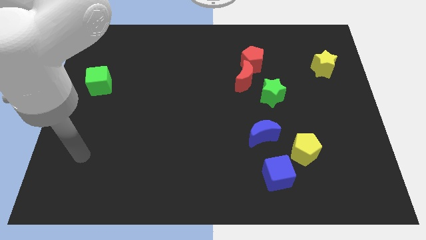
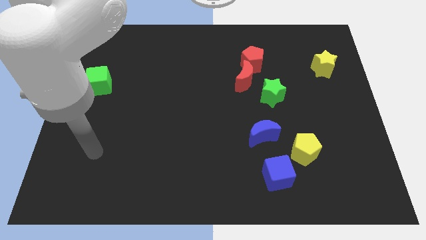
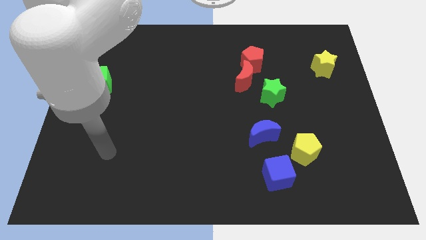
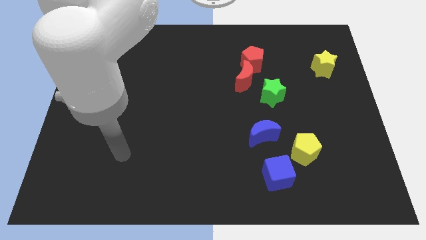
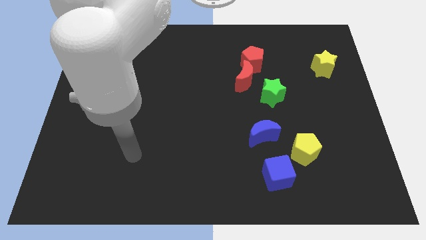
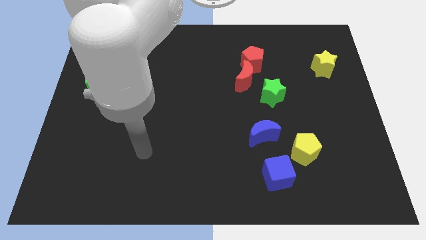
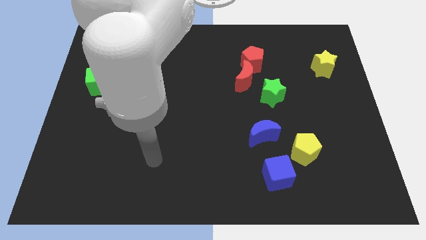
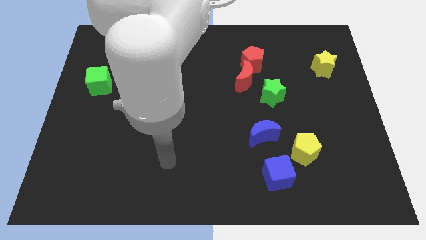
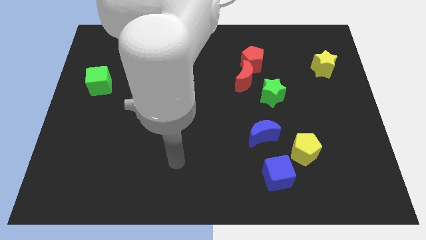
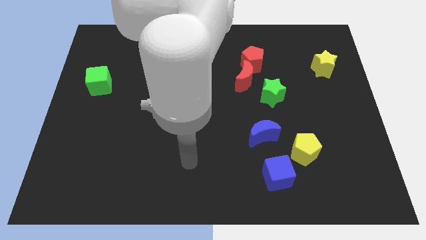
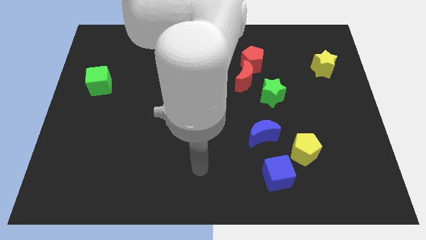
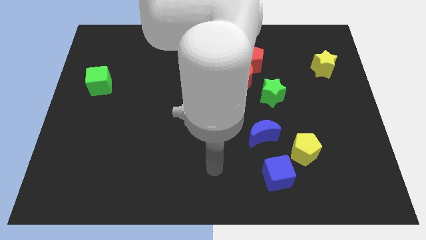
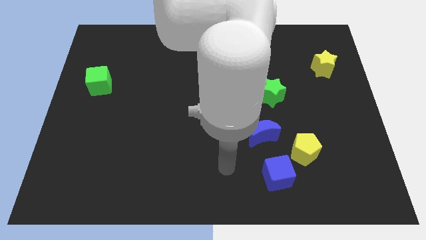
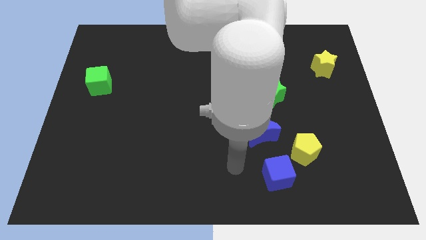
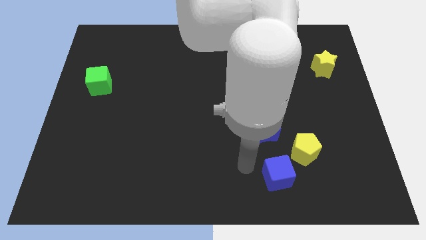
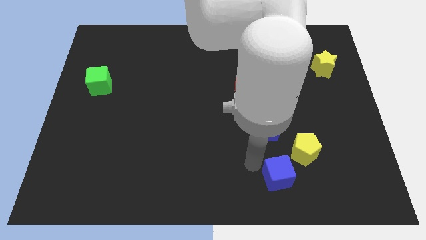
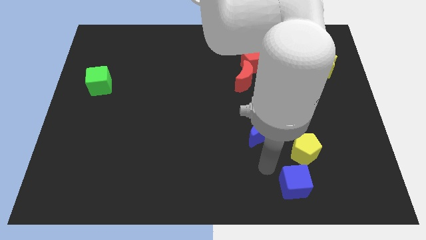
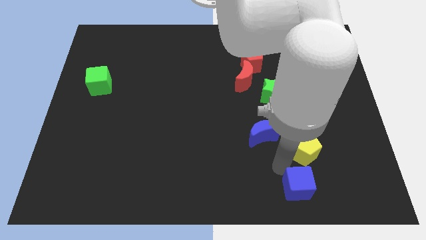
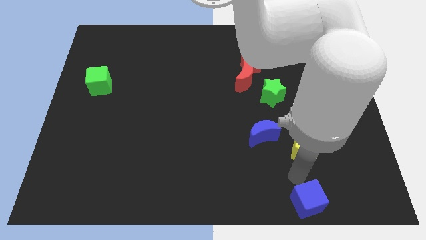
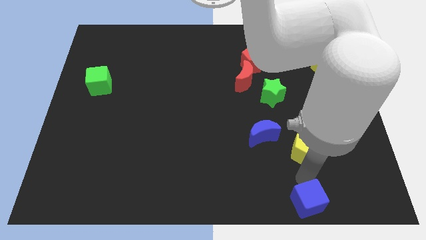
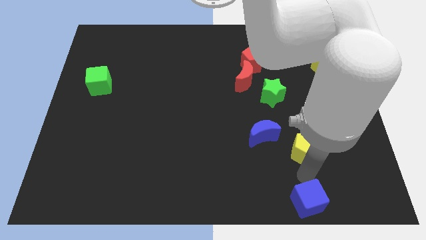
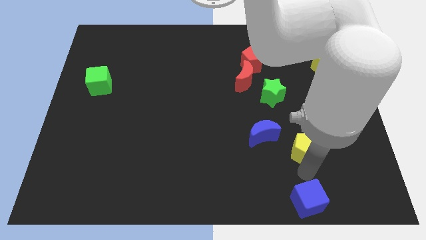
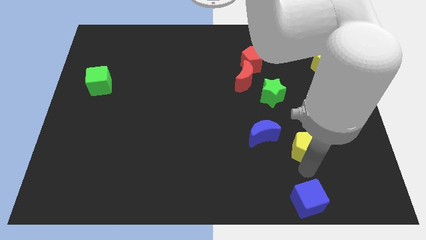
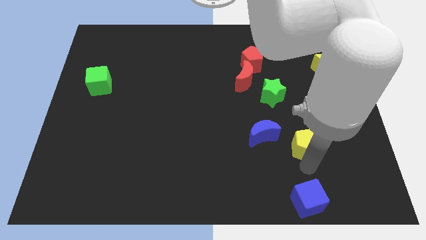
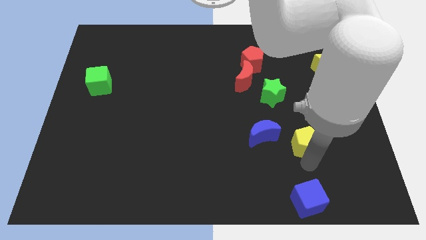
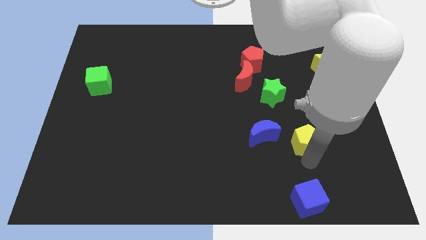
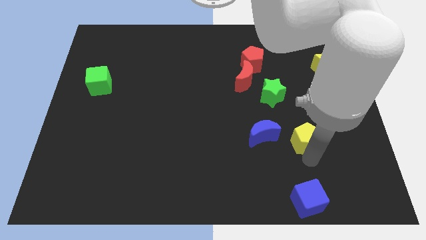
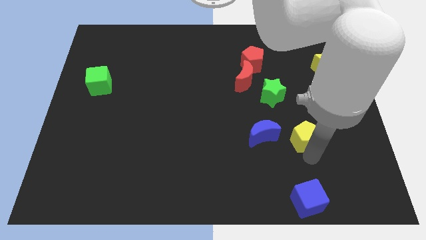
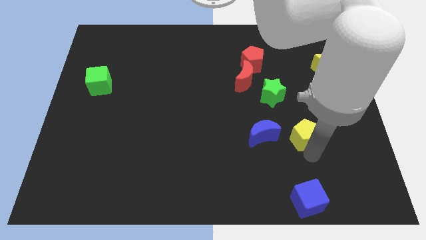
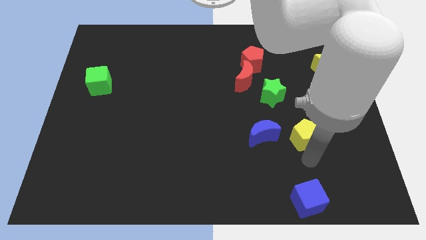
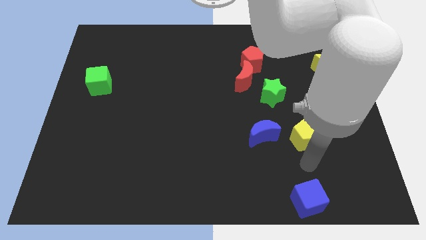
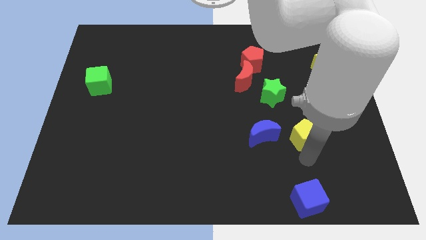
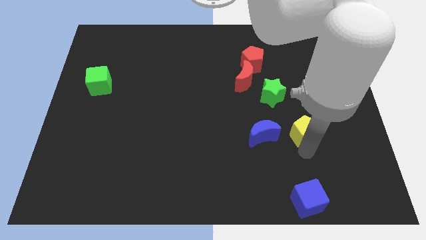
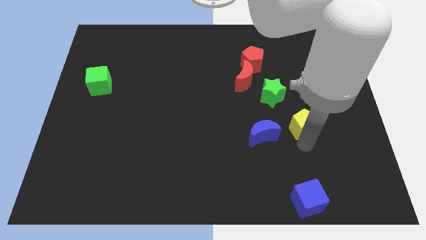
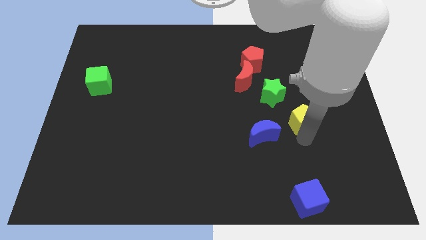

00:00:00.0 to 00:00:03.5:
move the yellow pentagon a little up

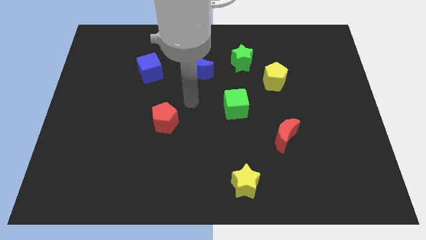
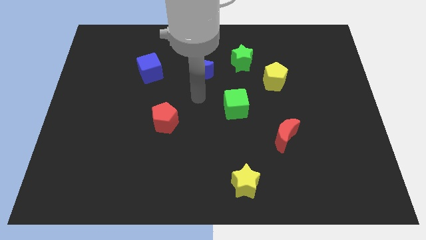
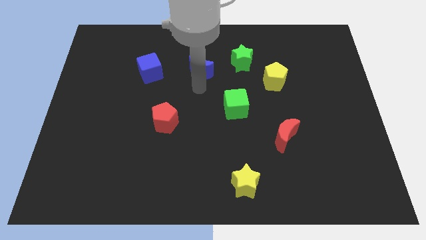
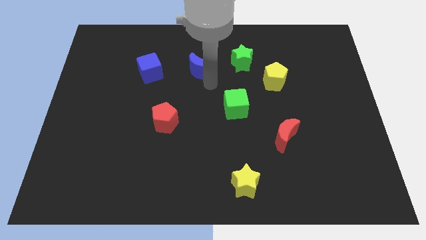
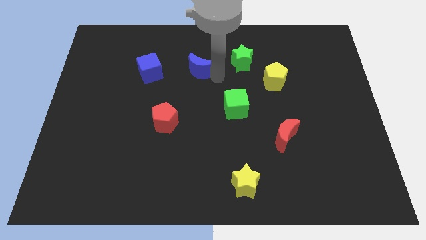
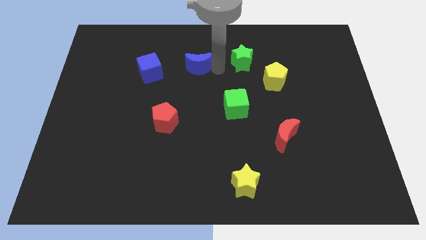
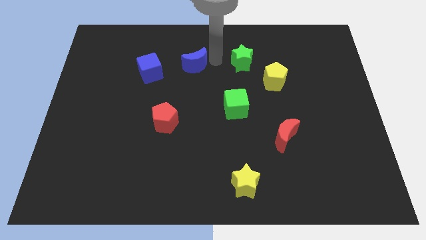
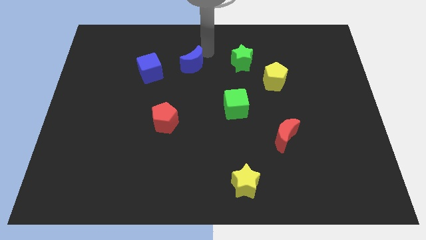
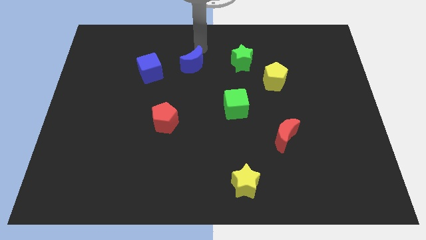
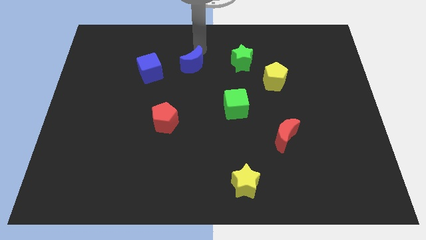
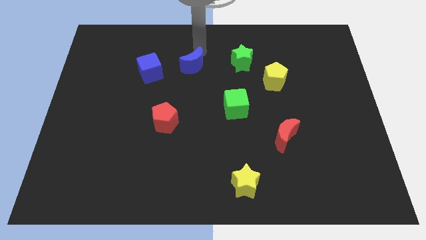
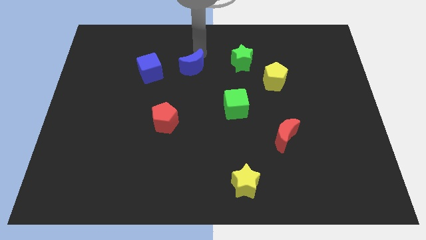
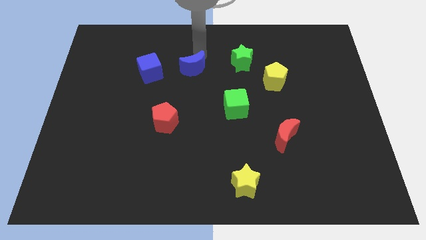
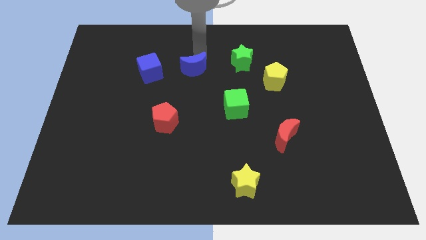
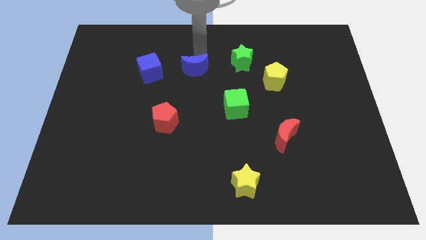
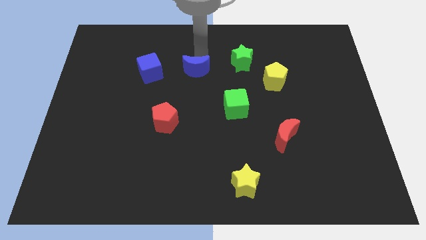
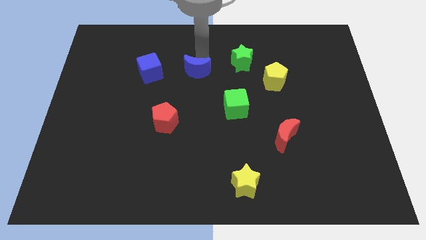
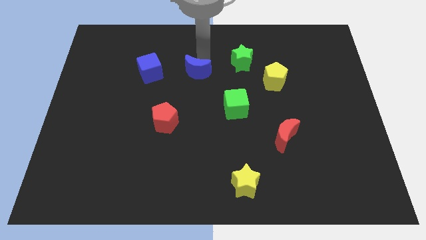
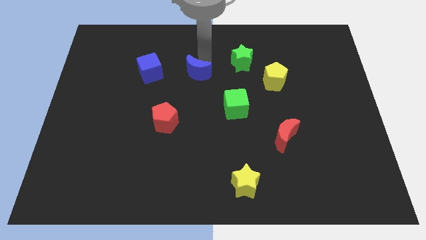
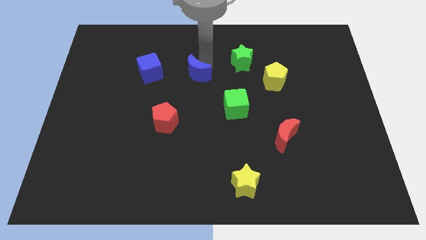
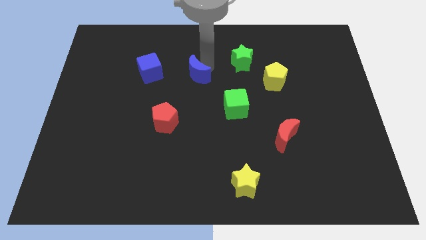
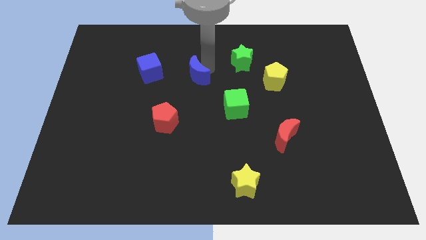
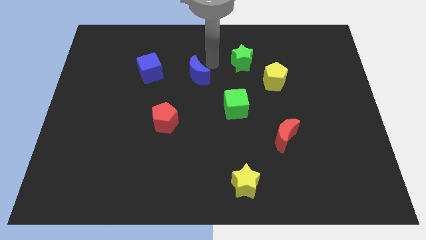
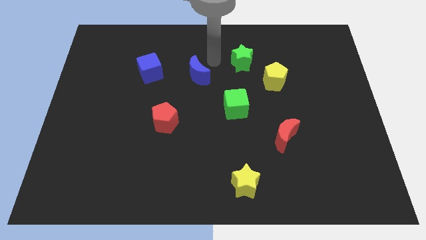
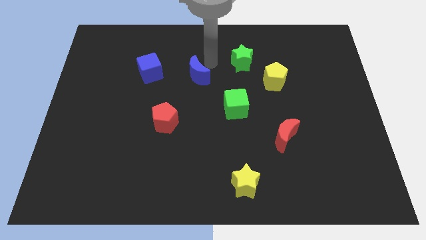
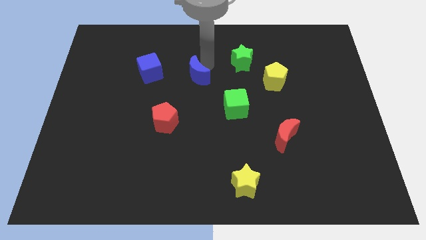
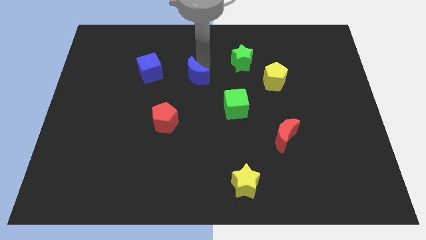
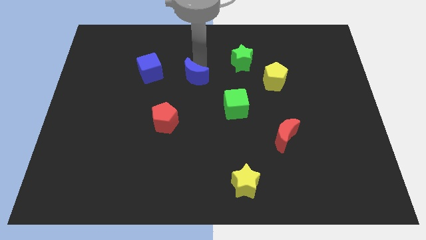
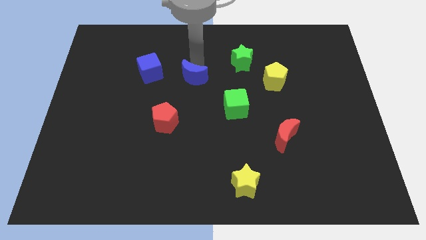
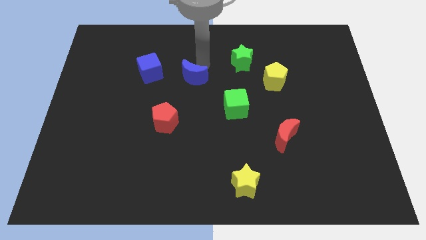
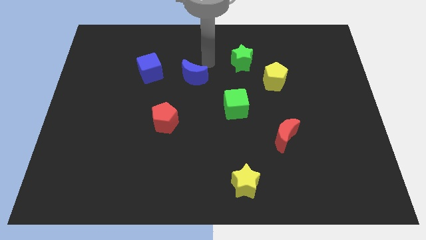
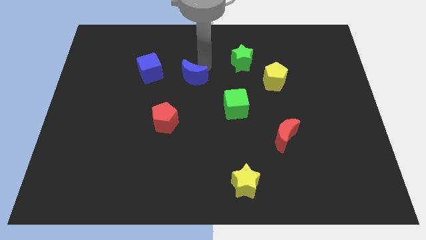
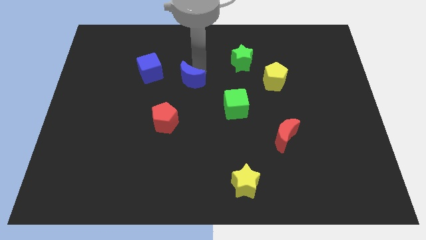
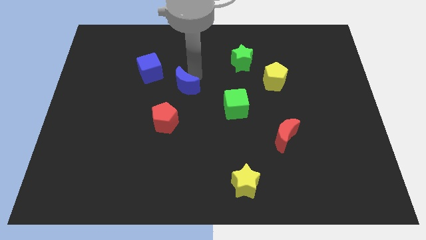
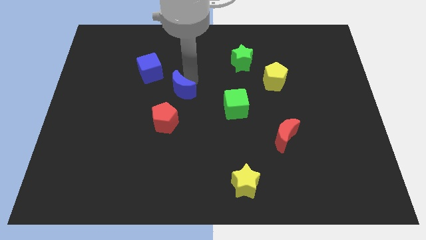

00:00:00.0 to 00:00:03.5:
slide the blue moon somewhat down and to the left

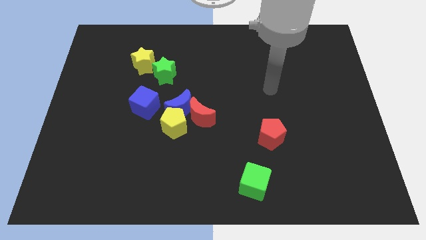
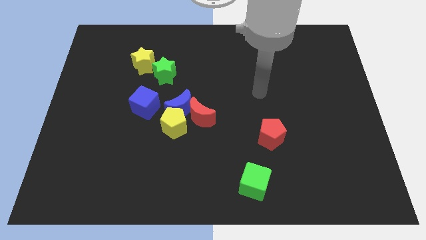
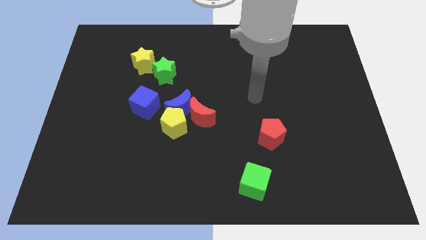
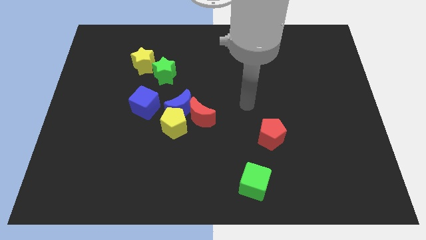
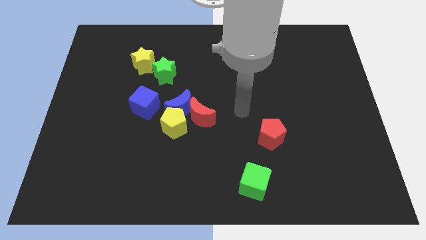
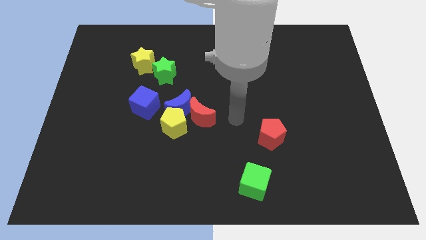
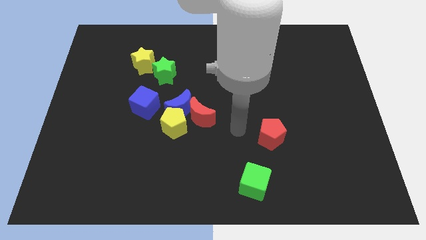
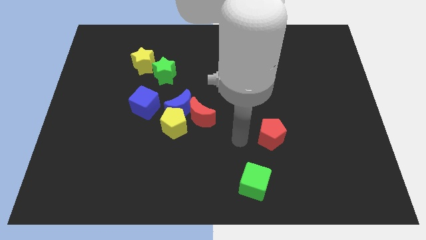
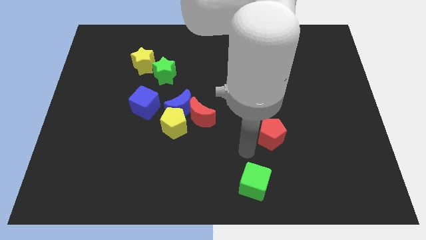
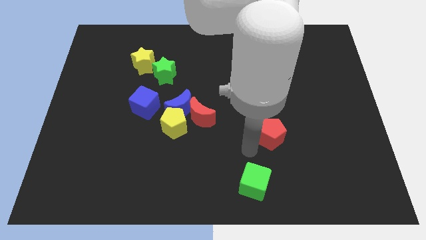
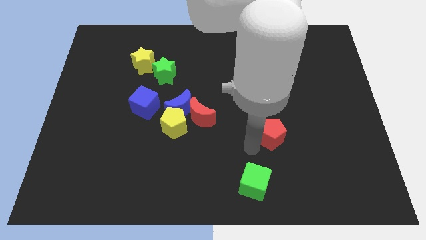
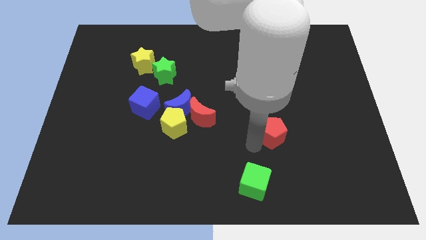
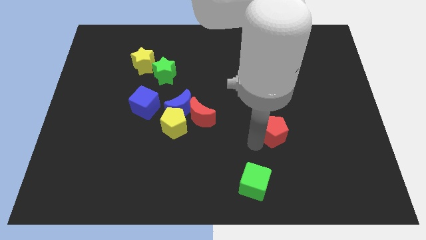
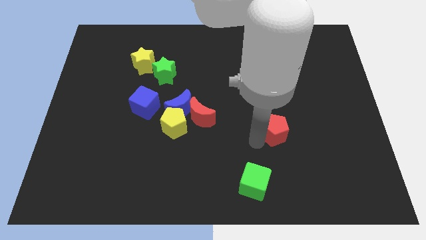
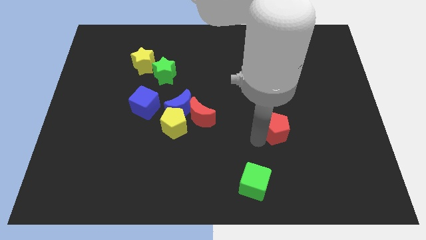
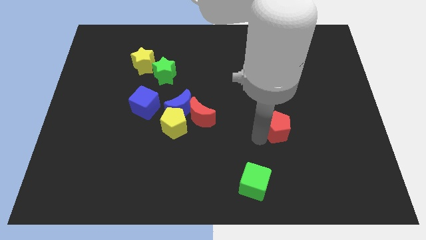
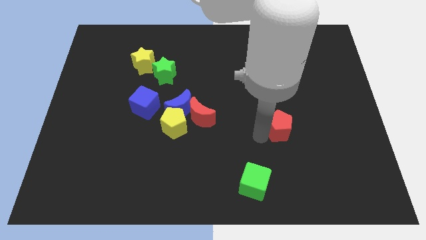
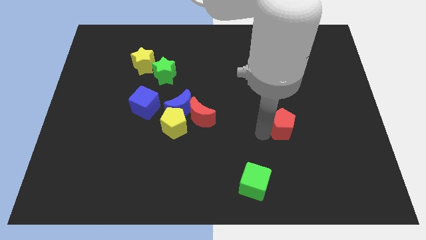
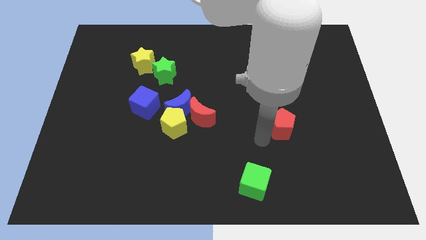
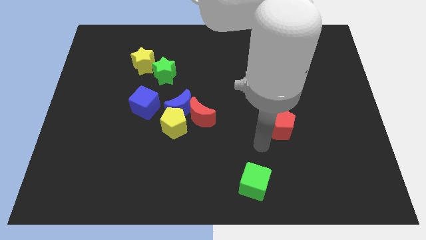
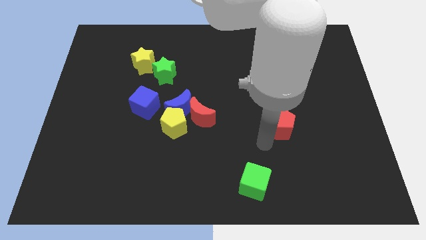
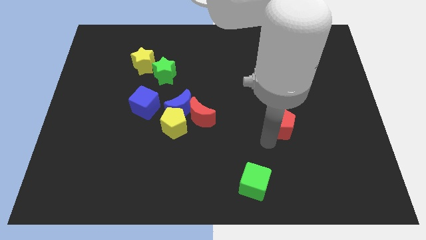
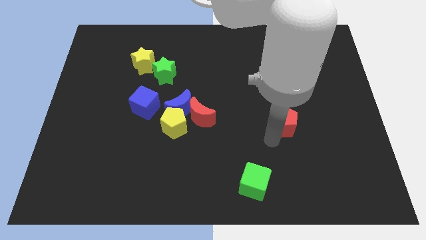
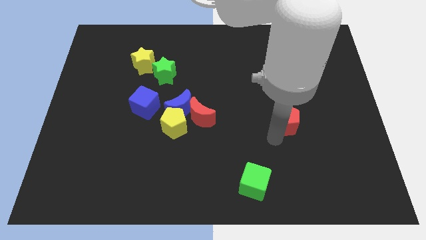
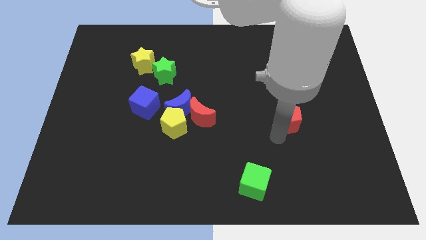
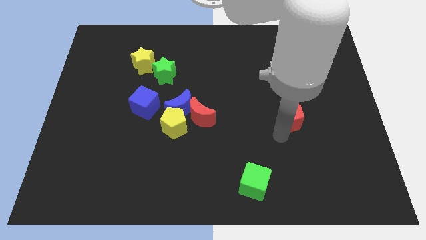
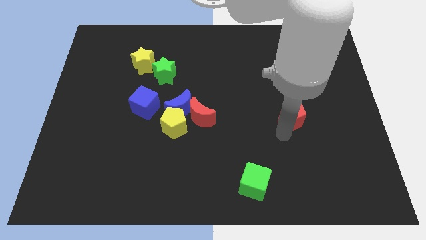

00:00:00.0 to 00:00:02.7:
move the red pentagon somewhat diagonally up and to the right
